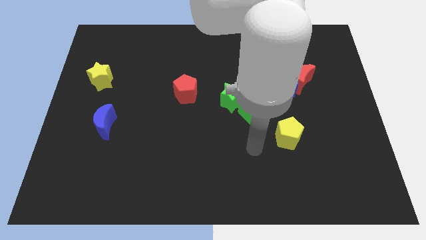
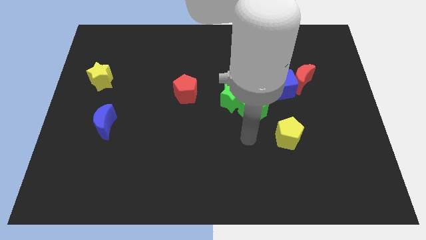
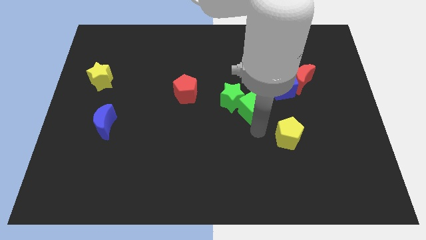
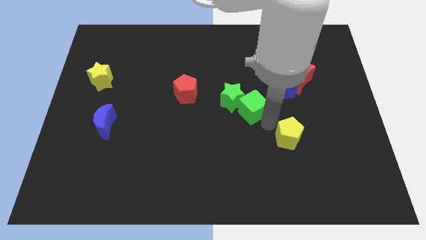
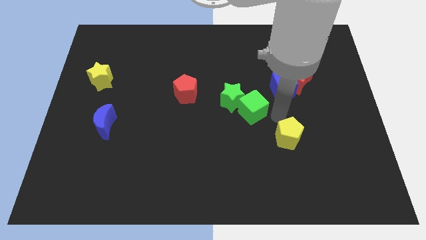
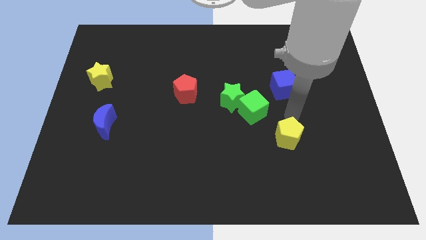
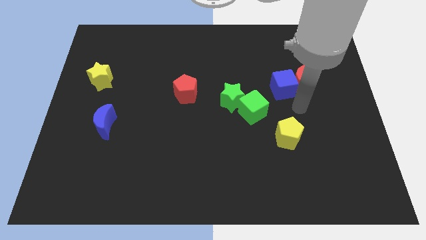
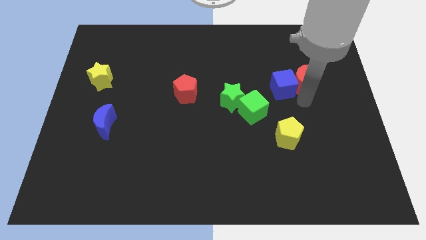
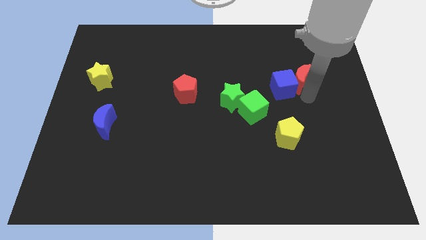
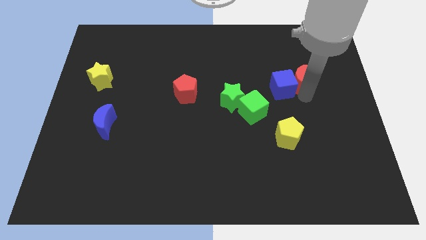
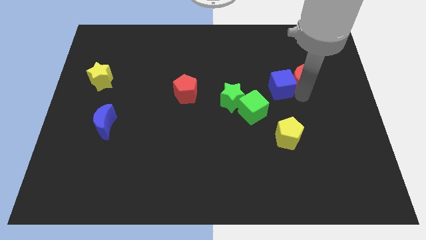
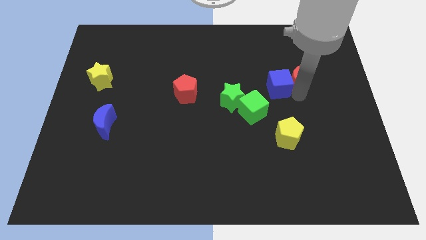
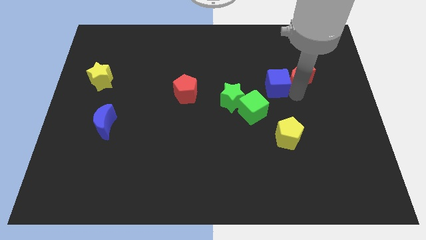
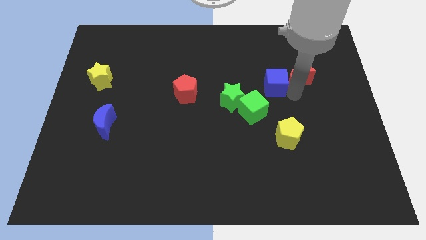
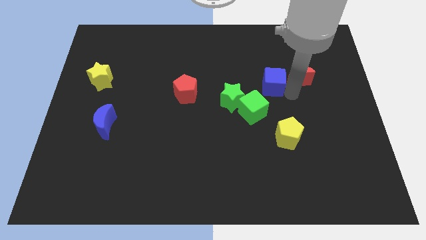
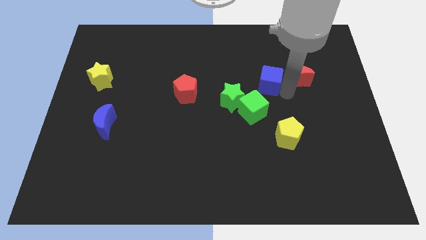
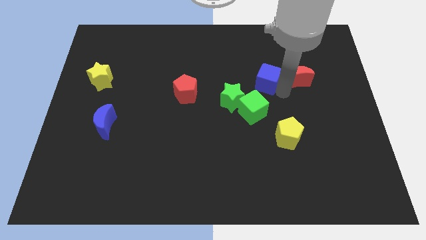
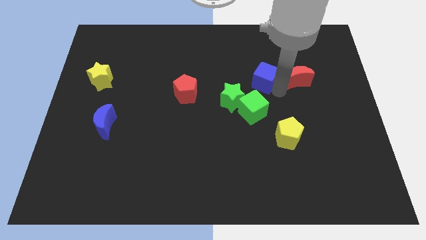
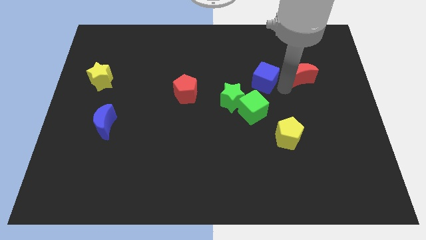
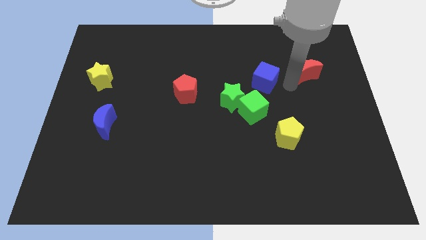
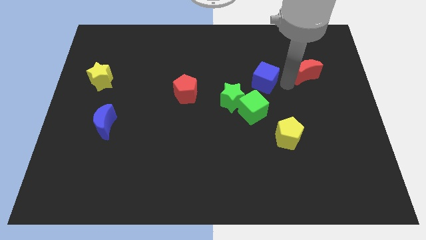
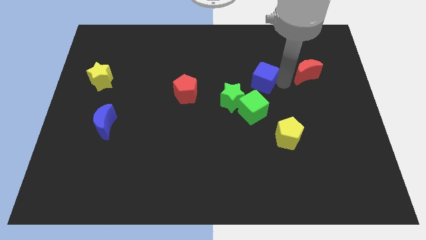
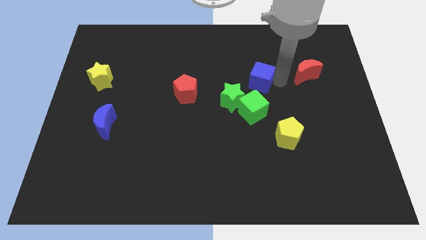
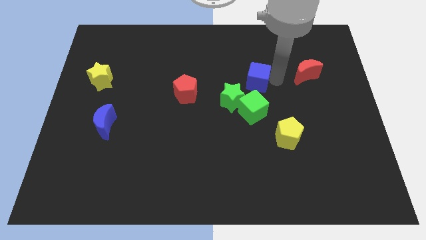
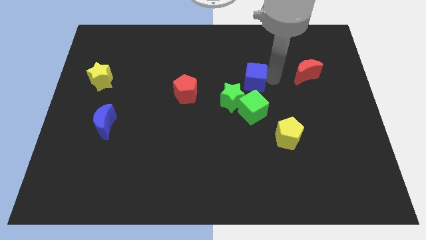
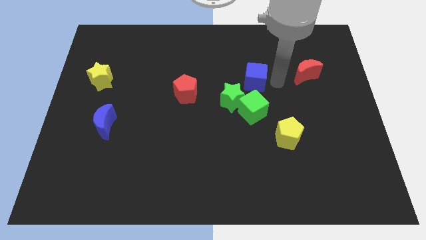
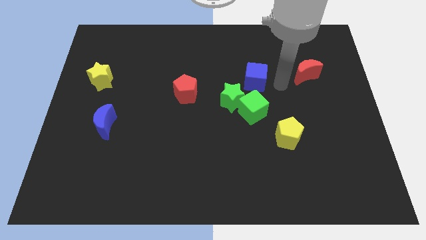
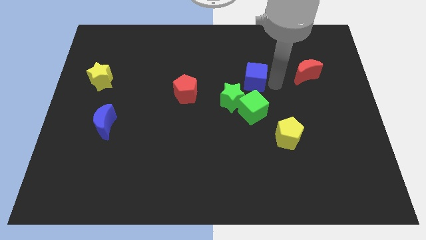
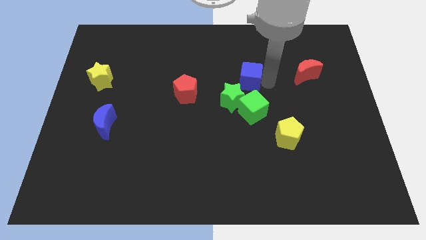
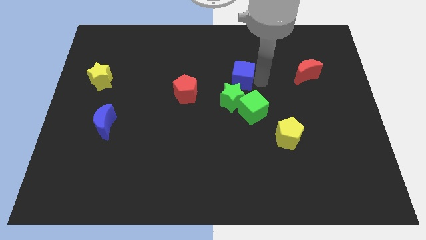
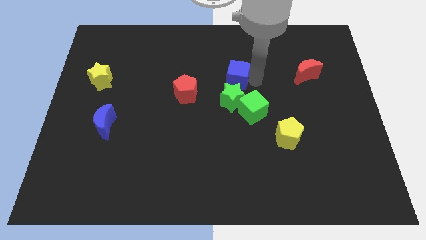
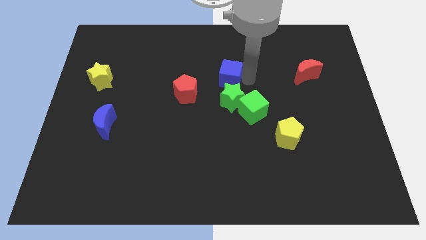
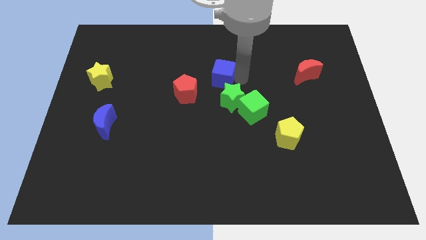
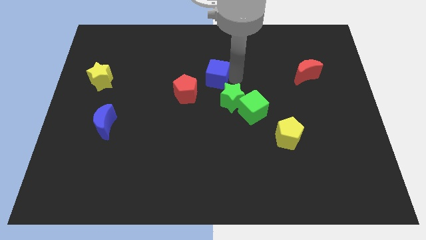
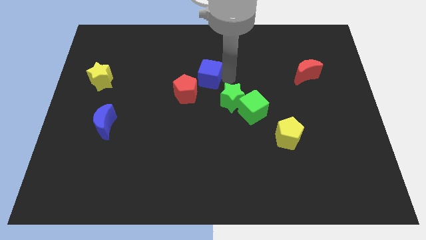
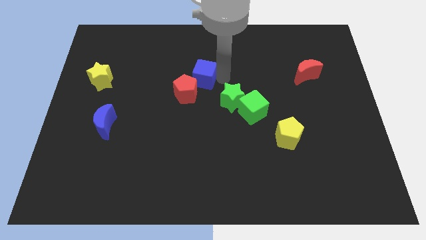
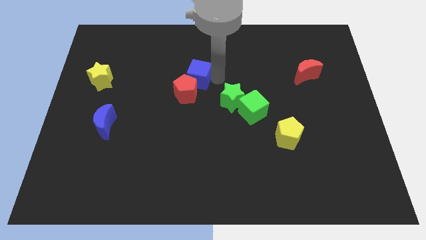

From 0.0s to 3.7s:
move the blue cube to the left

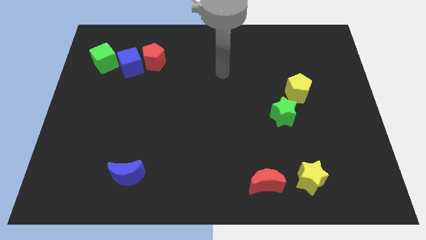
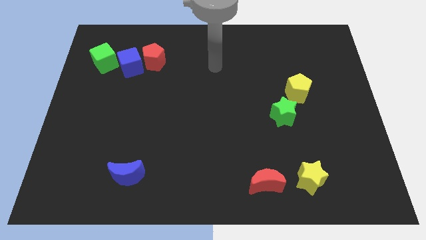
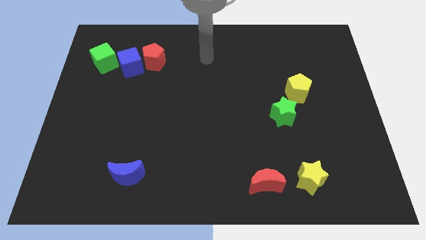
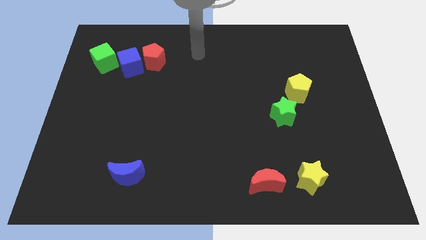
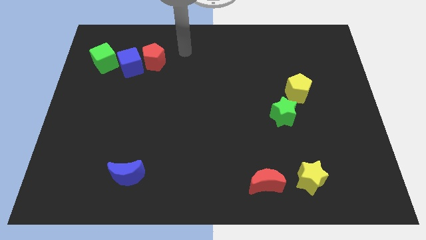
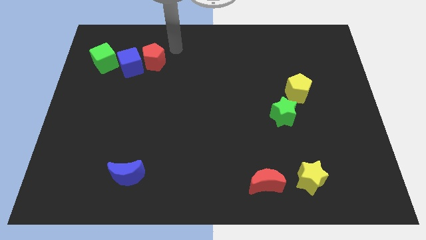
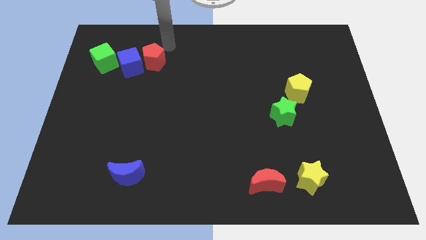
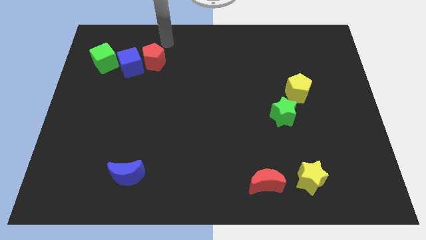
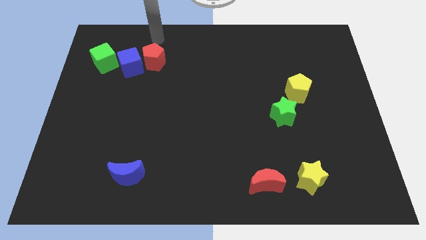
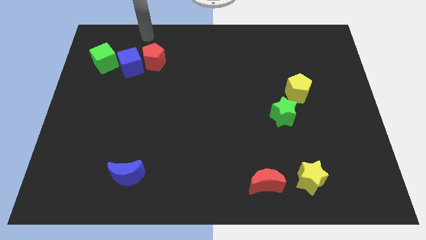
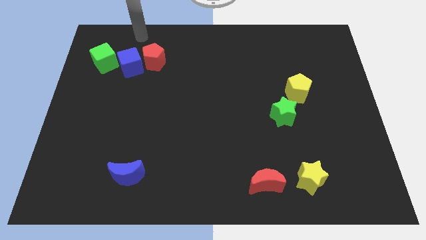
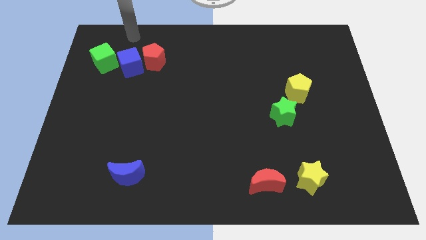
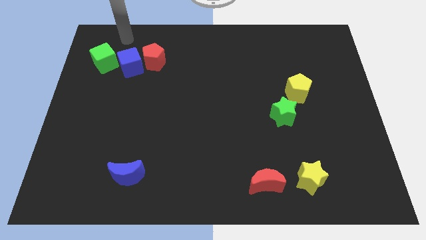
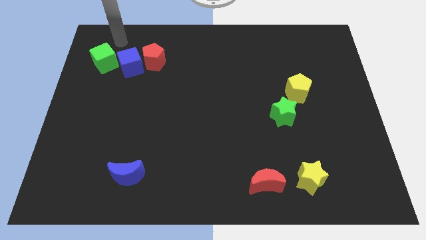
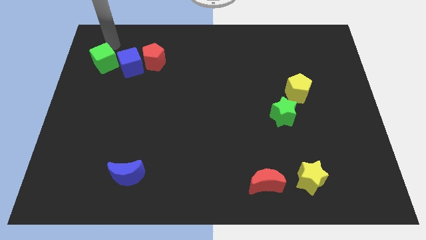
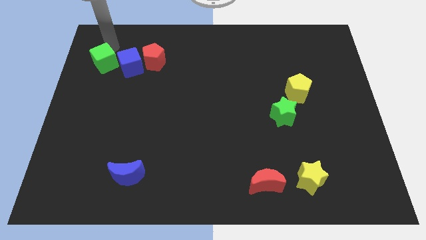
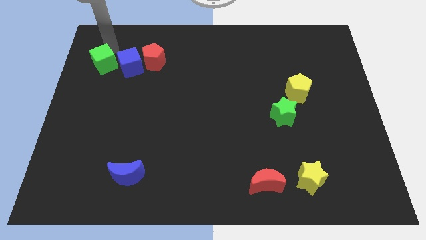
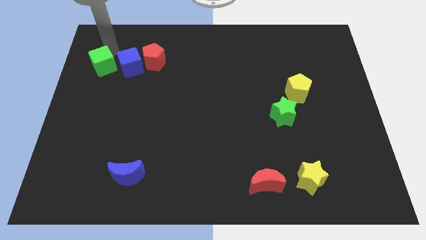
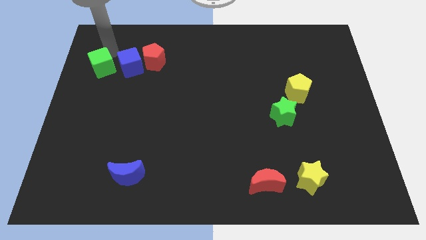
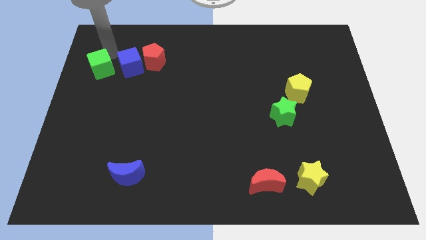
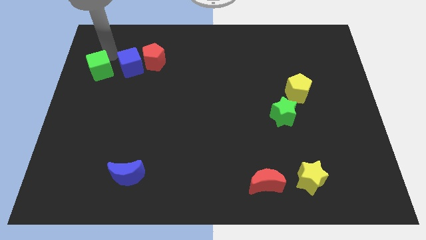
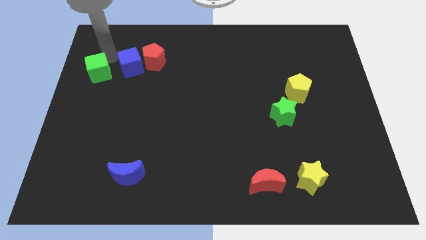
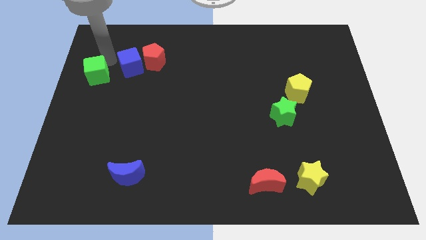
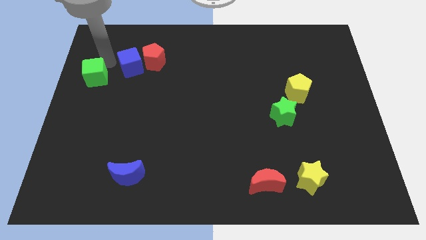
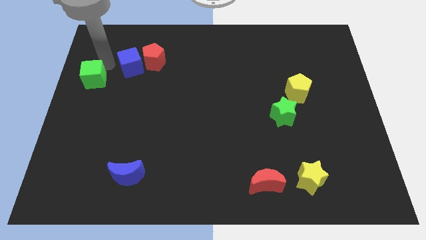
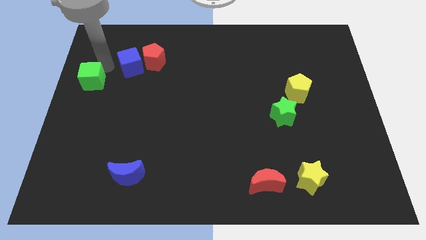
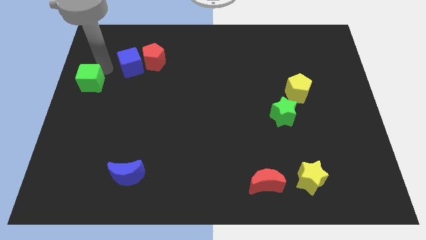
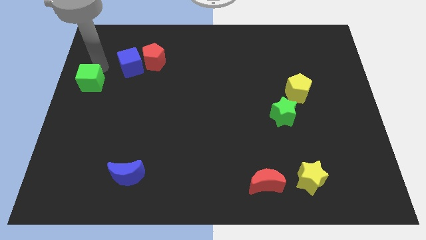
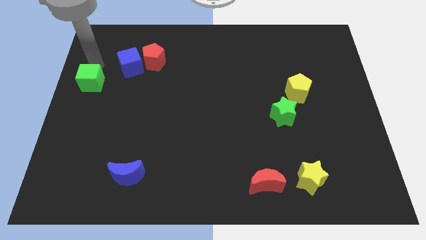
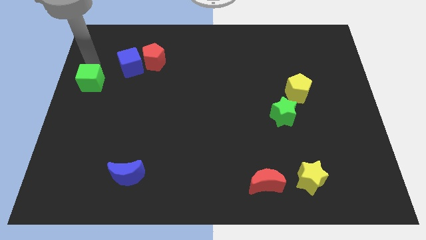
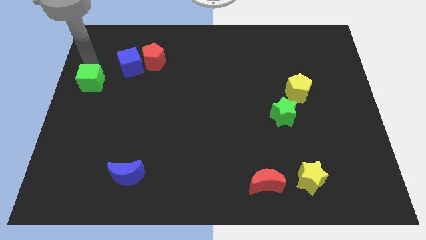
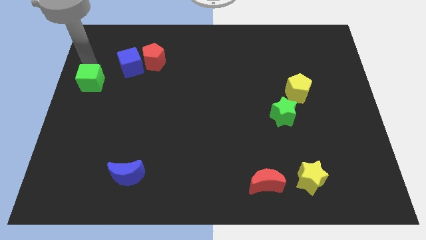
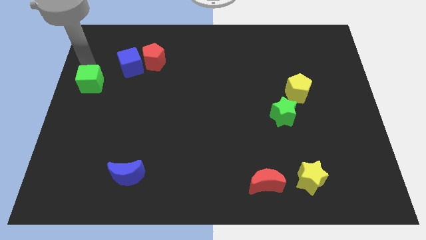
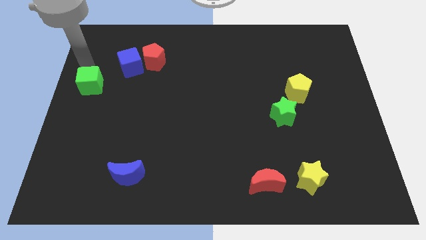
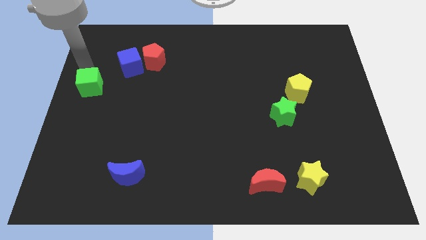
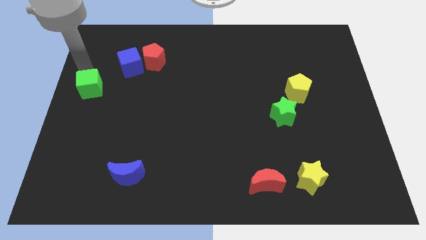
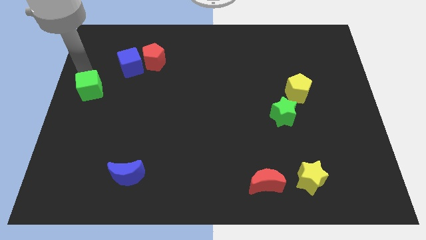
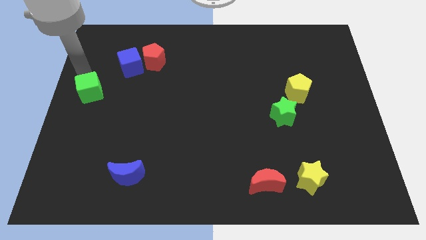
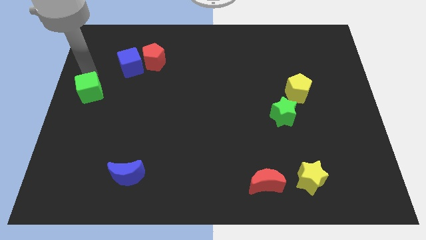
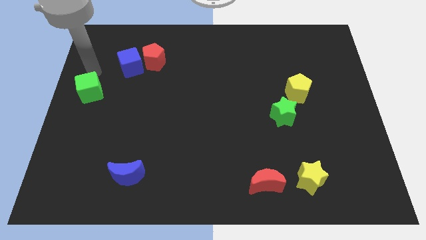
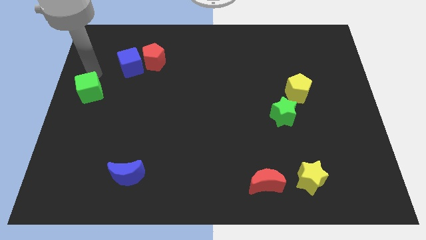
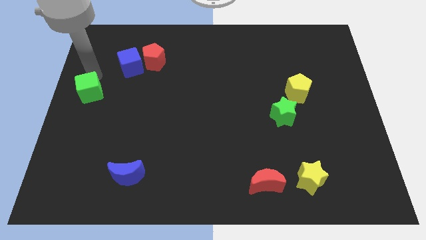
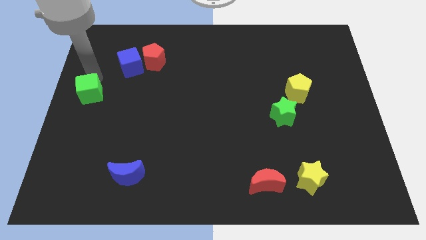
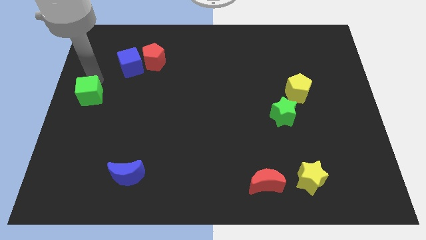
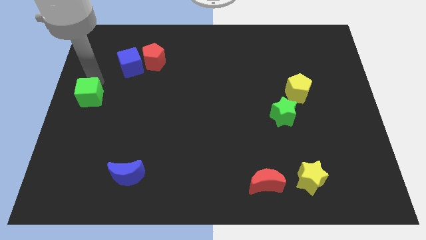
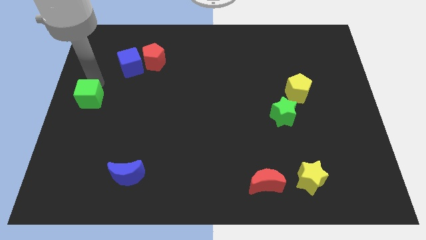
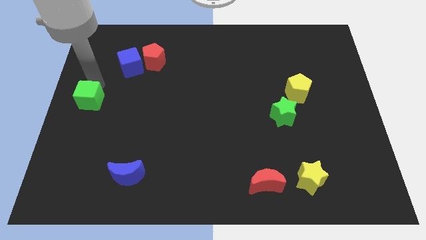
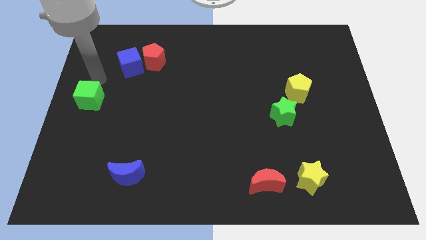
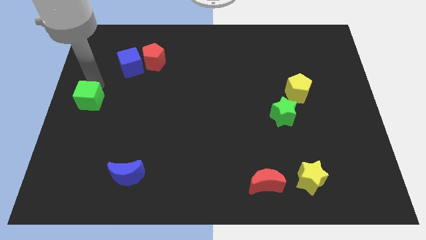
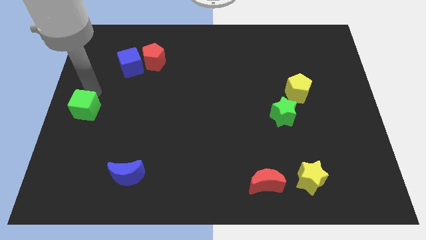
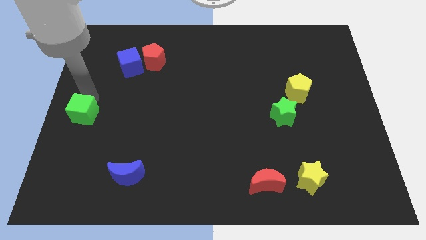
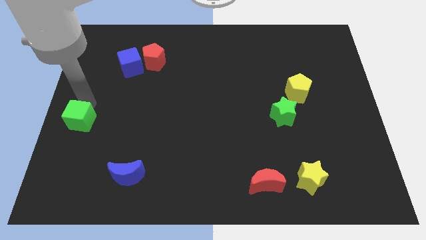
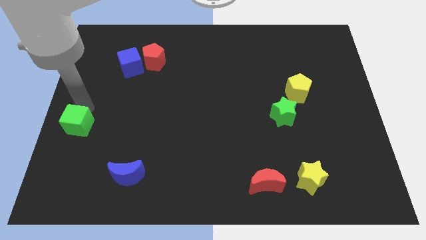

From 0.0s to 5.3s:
slide the green cube down
